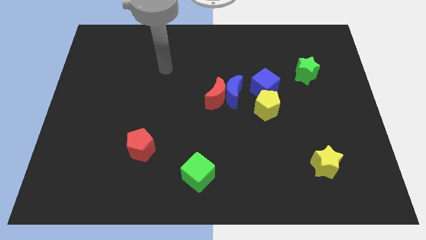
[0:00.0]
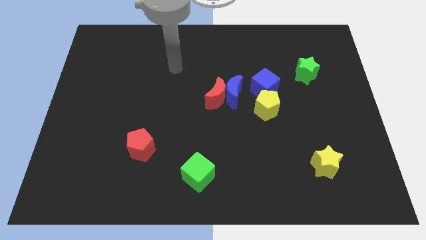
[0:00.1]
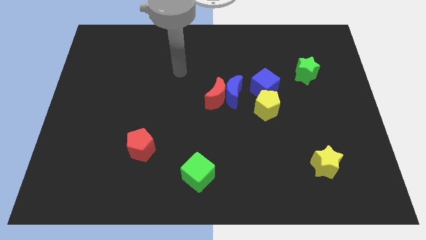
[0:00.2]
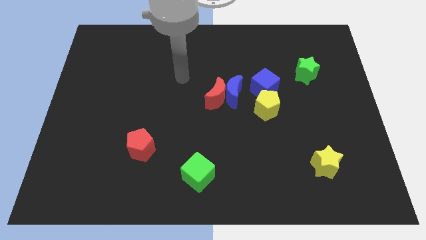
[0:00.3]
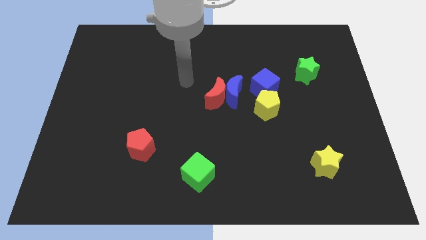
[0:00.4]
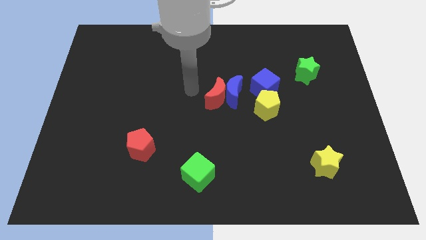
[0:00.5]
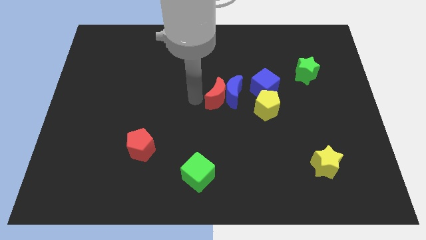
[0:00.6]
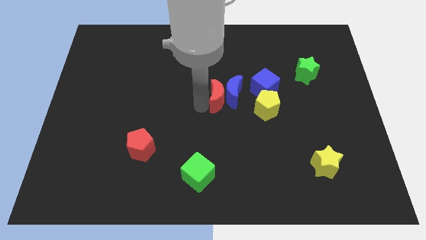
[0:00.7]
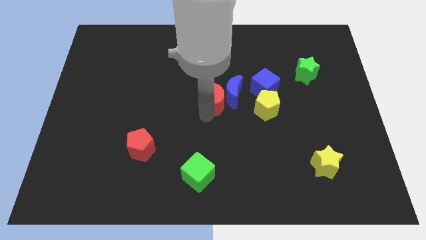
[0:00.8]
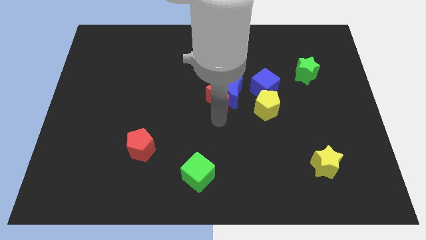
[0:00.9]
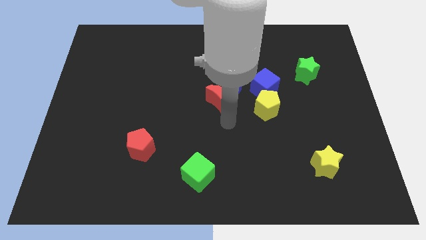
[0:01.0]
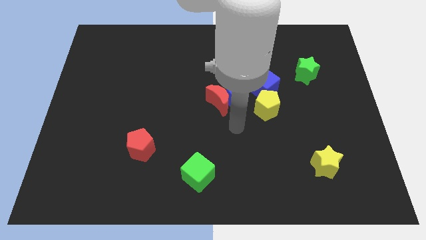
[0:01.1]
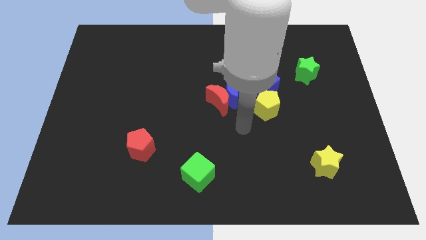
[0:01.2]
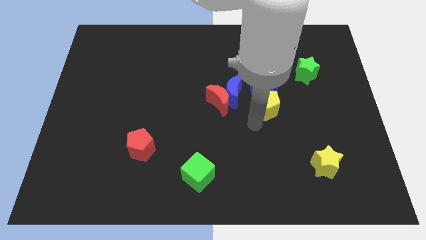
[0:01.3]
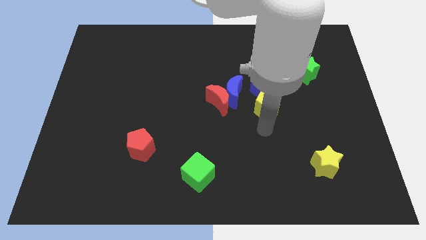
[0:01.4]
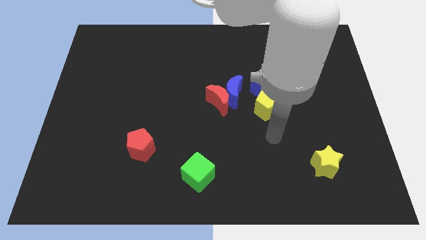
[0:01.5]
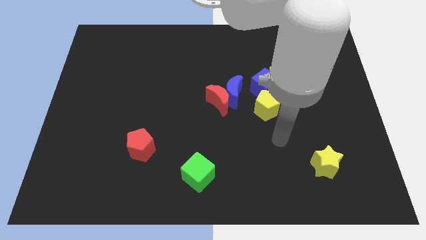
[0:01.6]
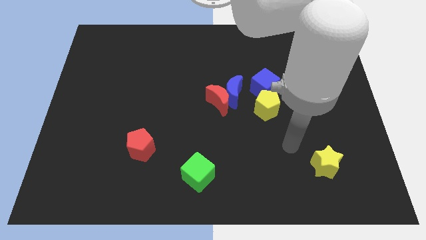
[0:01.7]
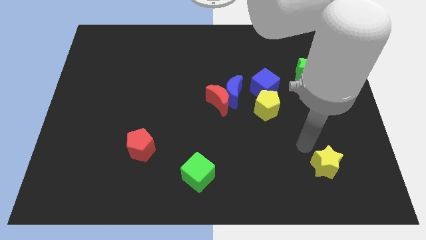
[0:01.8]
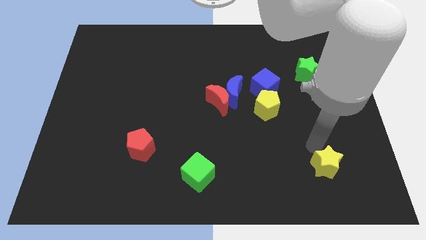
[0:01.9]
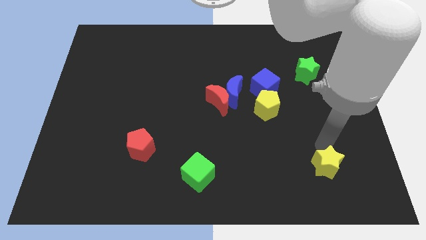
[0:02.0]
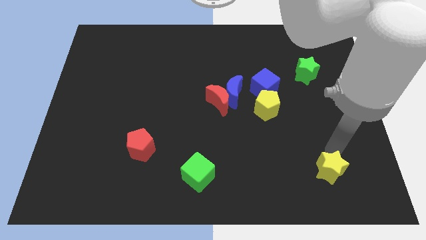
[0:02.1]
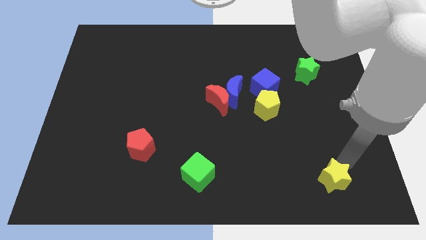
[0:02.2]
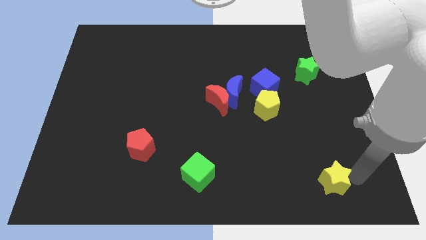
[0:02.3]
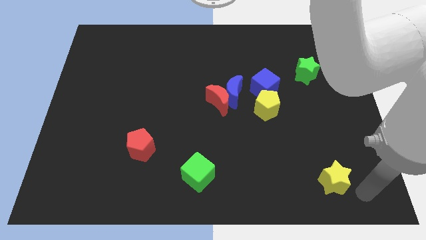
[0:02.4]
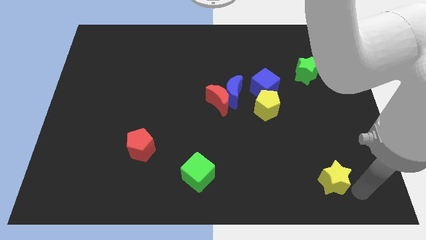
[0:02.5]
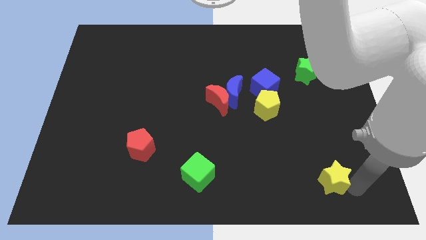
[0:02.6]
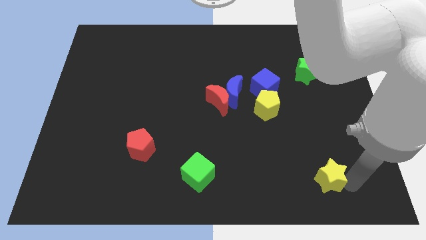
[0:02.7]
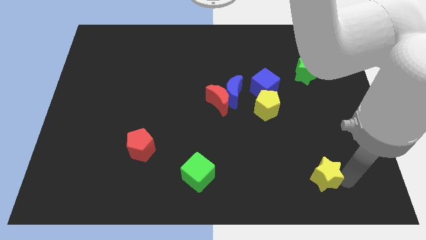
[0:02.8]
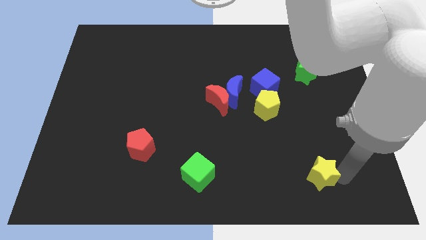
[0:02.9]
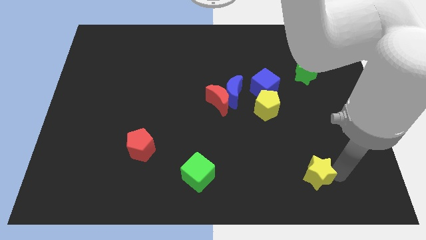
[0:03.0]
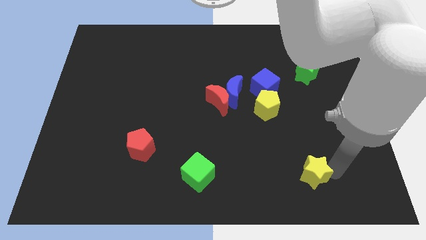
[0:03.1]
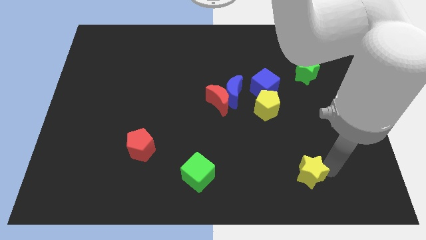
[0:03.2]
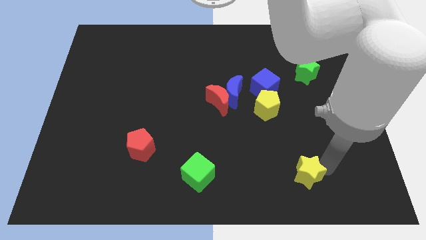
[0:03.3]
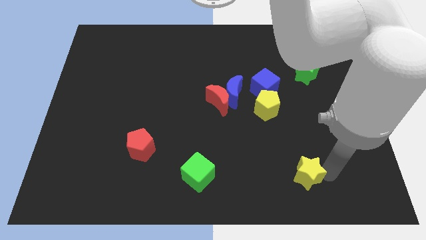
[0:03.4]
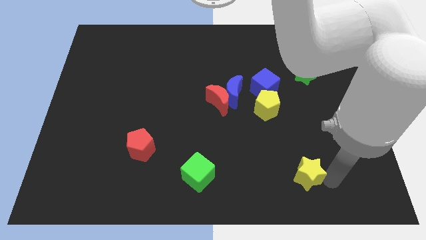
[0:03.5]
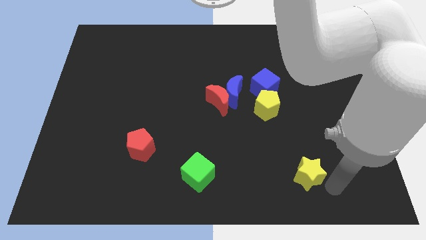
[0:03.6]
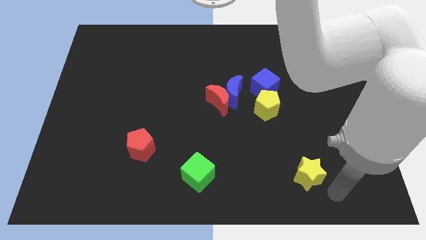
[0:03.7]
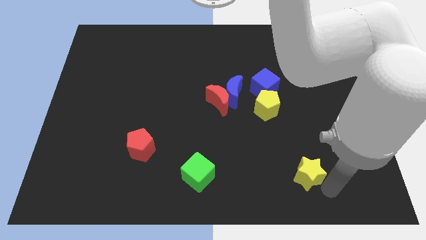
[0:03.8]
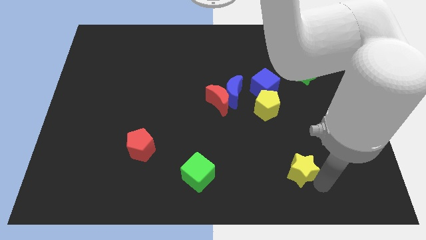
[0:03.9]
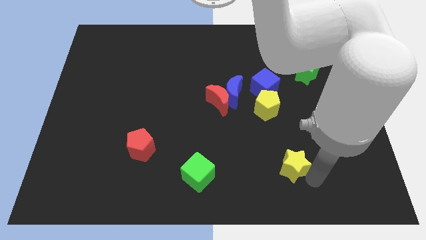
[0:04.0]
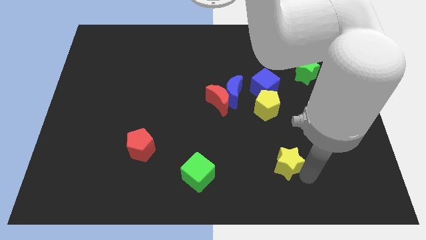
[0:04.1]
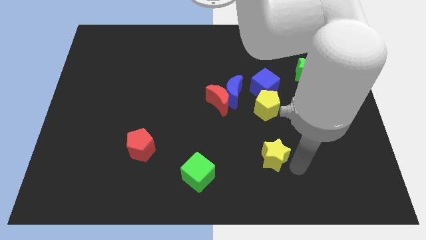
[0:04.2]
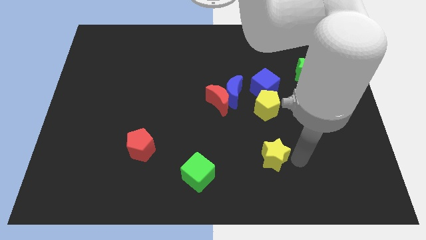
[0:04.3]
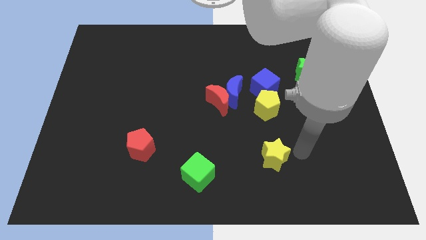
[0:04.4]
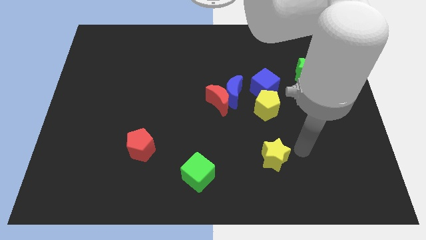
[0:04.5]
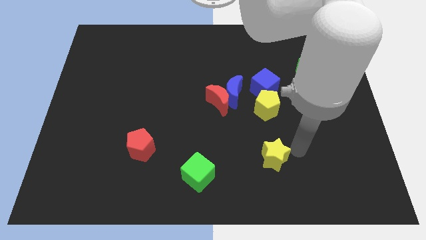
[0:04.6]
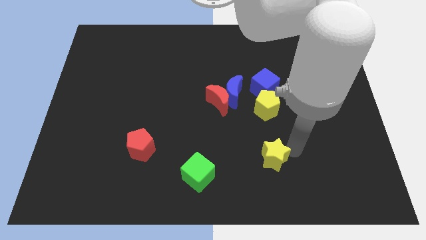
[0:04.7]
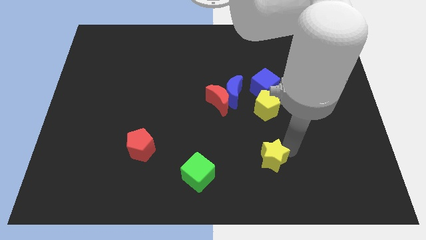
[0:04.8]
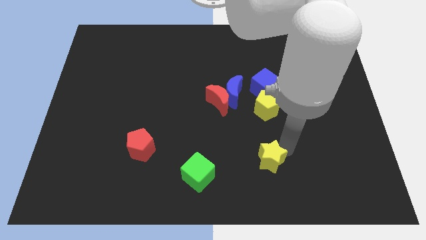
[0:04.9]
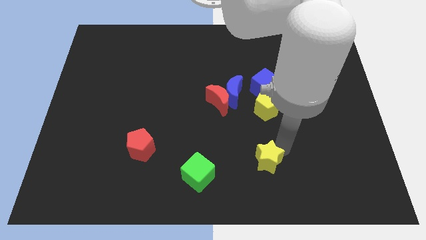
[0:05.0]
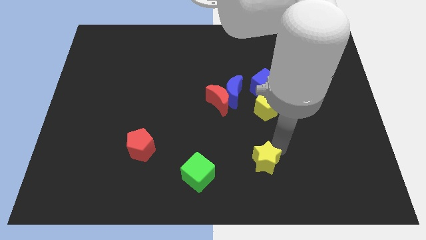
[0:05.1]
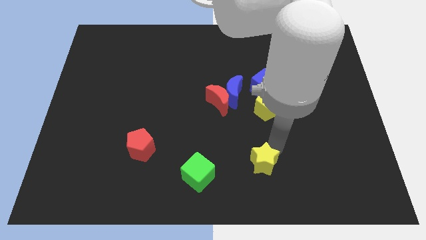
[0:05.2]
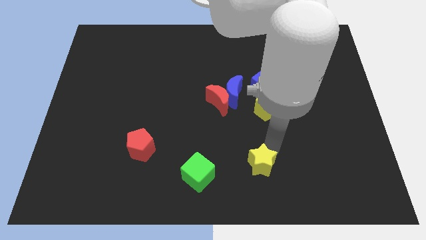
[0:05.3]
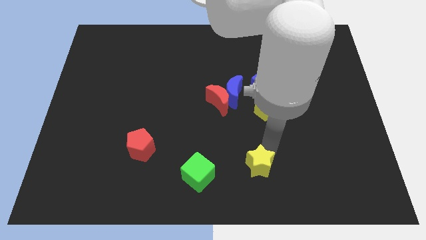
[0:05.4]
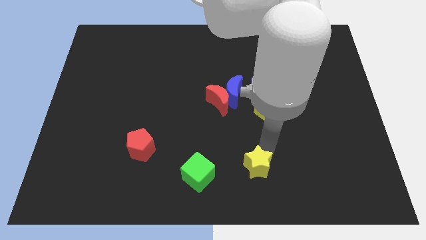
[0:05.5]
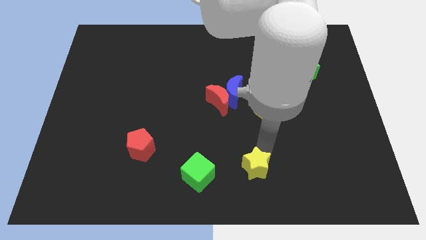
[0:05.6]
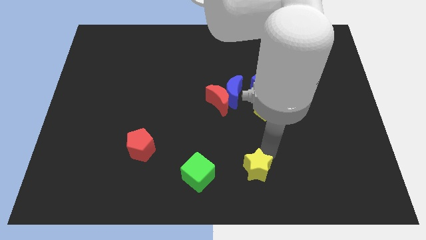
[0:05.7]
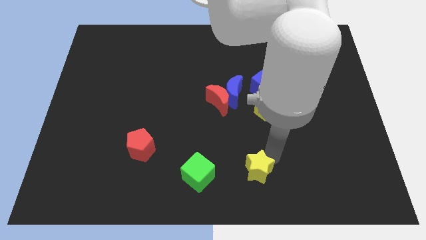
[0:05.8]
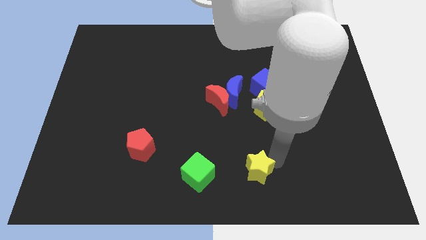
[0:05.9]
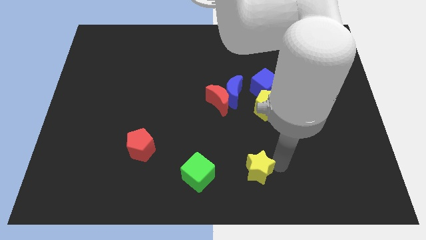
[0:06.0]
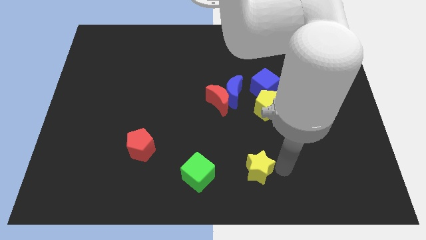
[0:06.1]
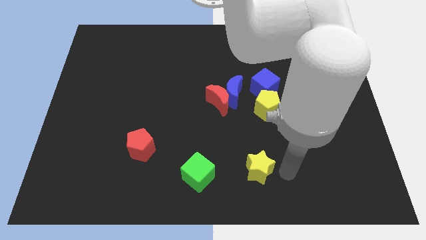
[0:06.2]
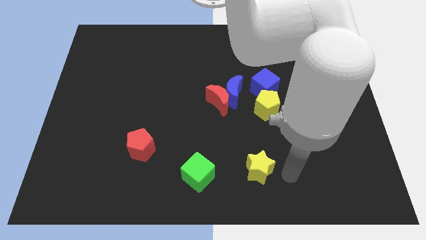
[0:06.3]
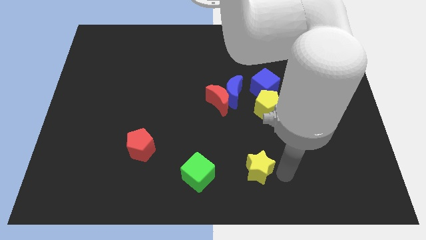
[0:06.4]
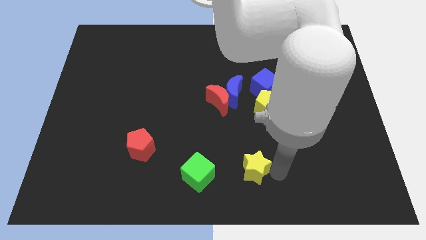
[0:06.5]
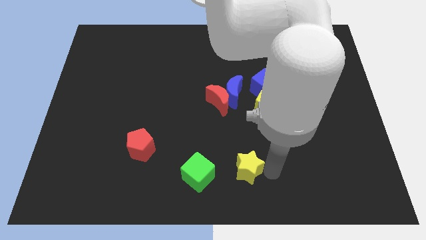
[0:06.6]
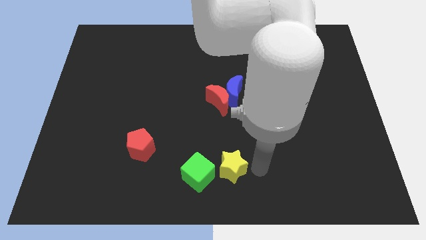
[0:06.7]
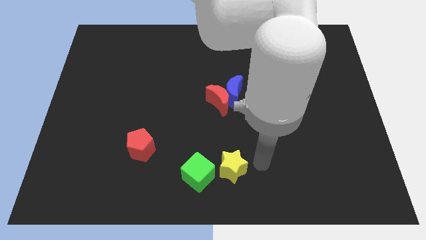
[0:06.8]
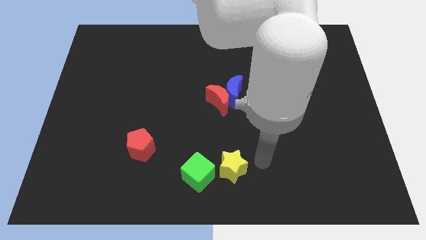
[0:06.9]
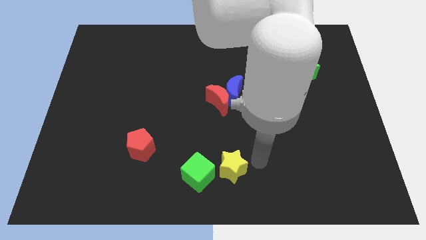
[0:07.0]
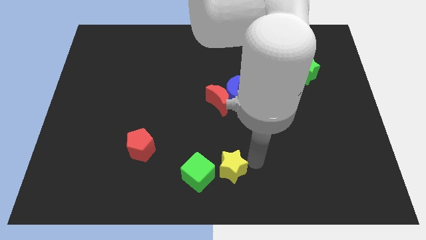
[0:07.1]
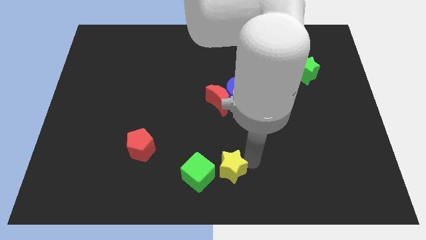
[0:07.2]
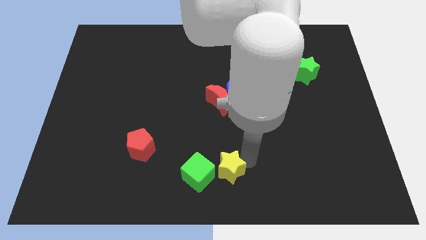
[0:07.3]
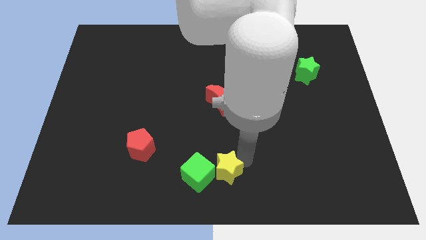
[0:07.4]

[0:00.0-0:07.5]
move the yellow star towards the green cube
